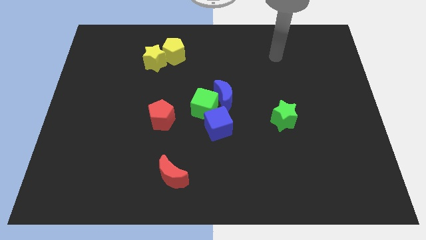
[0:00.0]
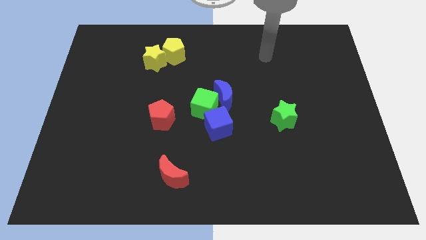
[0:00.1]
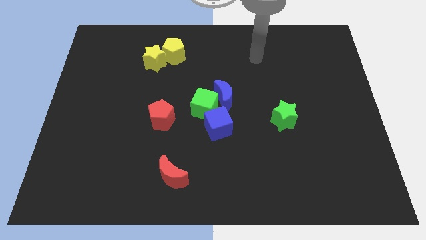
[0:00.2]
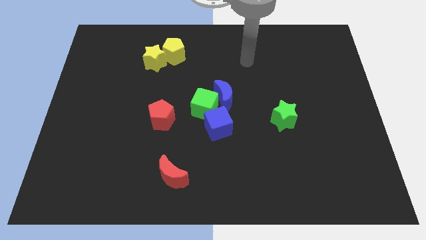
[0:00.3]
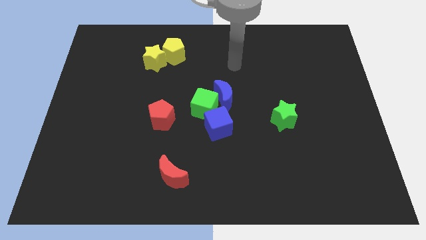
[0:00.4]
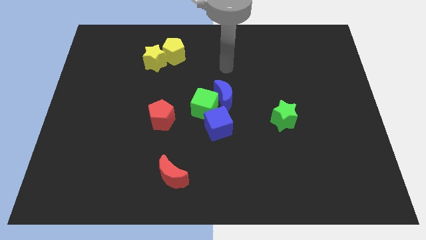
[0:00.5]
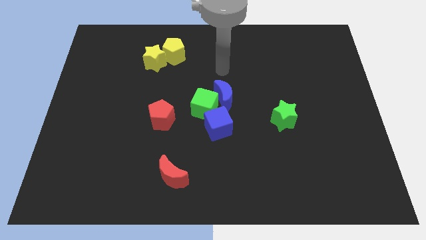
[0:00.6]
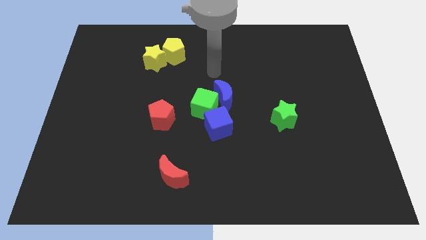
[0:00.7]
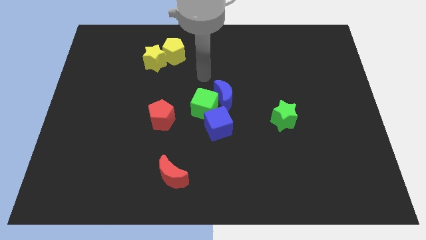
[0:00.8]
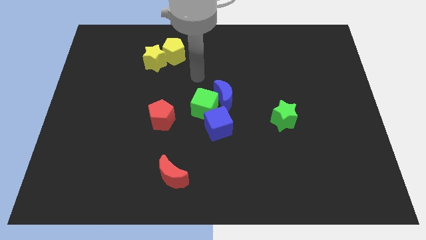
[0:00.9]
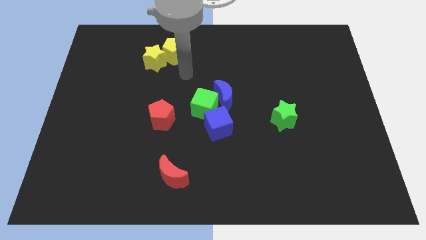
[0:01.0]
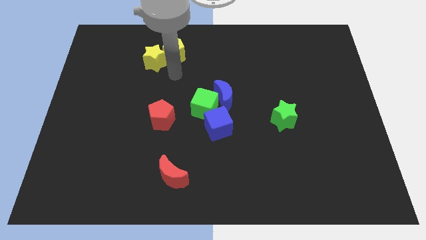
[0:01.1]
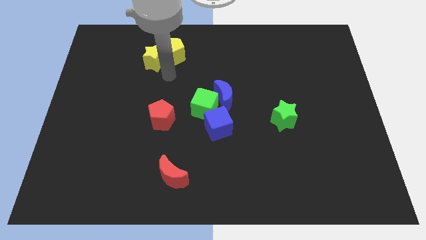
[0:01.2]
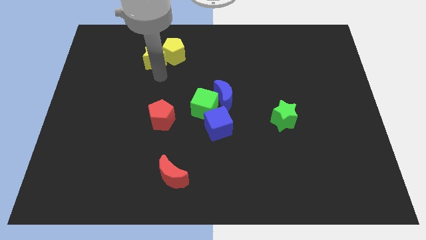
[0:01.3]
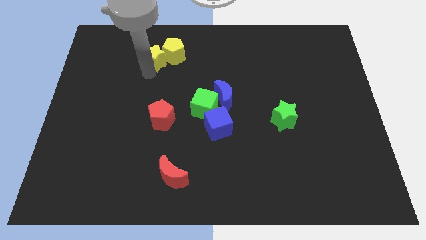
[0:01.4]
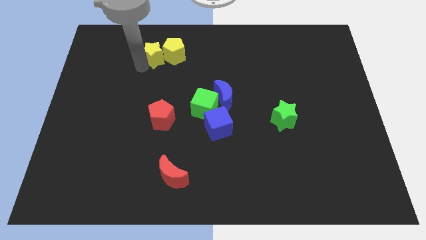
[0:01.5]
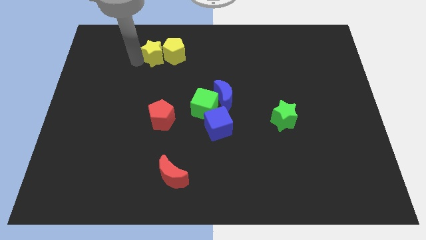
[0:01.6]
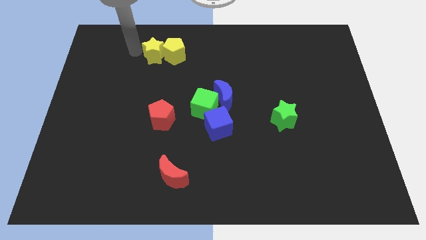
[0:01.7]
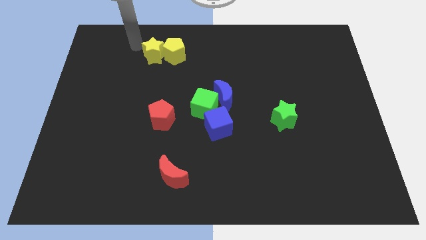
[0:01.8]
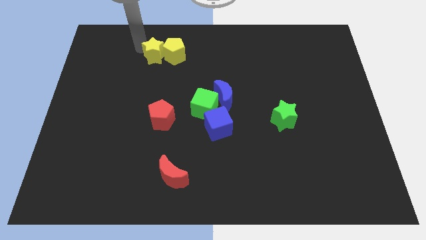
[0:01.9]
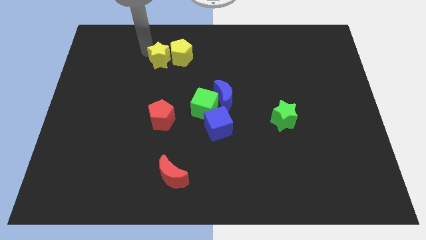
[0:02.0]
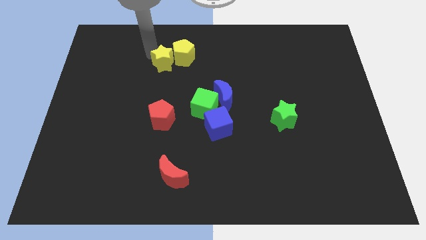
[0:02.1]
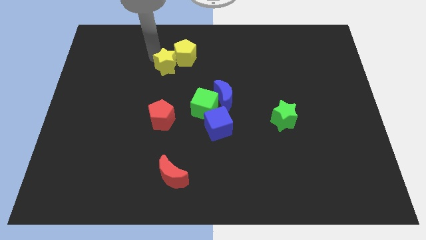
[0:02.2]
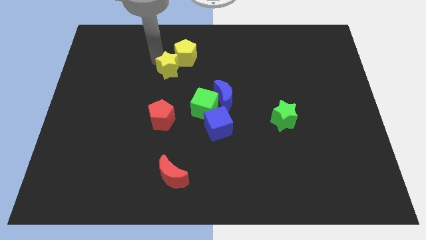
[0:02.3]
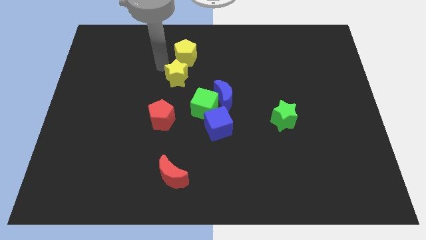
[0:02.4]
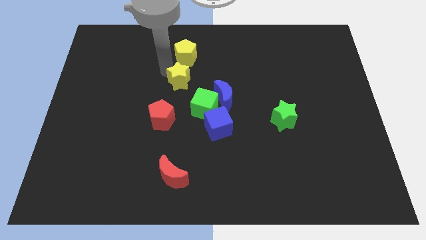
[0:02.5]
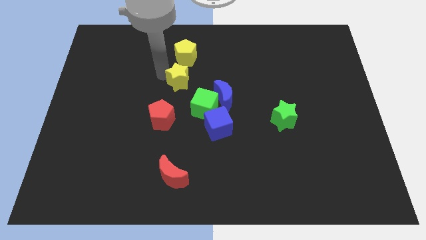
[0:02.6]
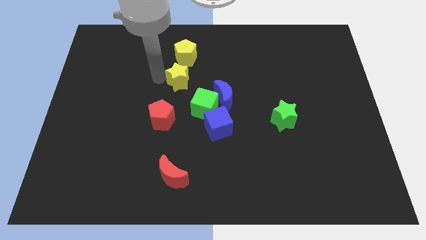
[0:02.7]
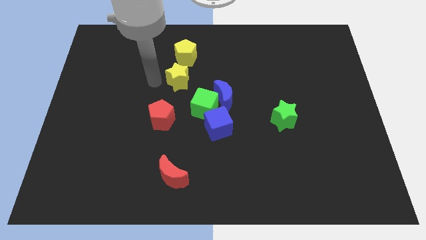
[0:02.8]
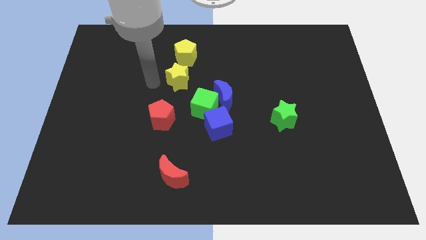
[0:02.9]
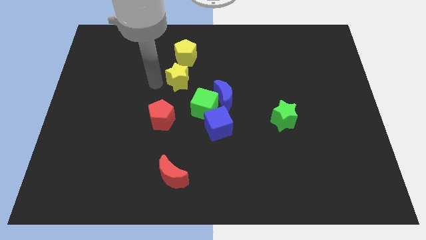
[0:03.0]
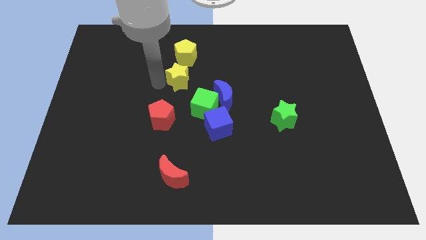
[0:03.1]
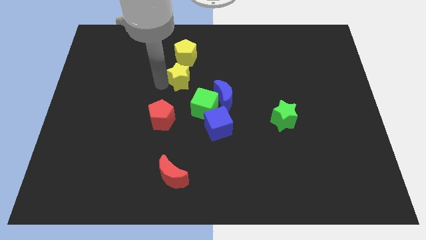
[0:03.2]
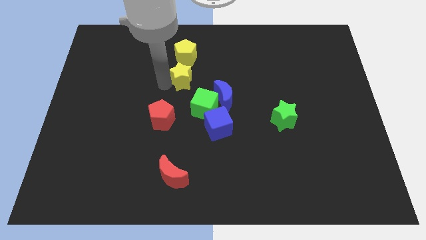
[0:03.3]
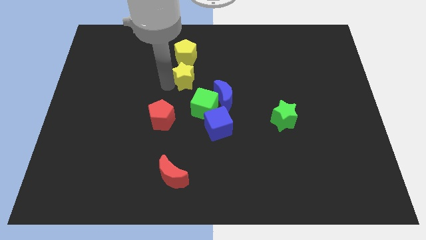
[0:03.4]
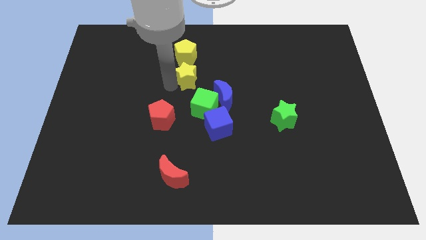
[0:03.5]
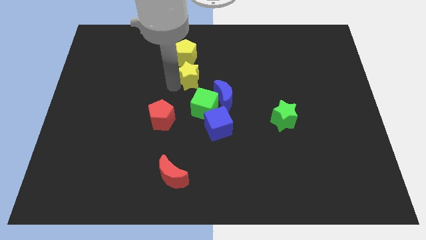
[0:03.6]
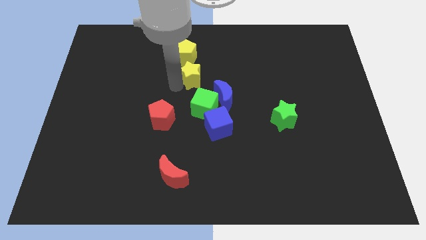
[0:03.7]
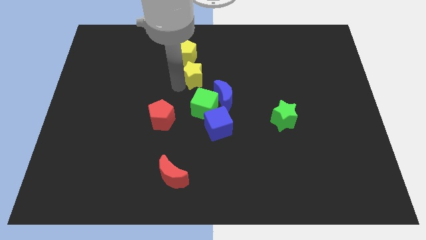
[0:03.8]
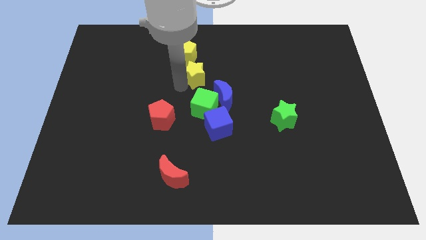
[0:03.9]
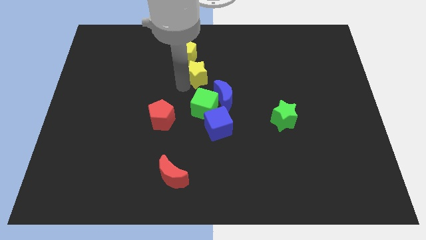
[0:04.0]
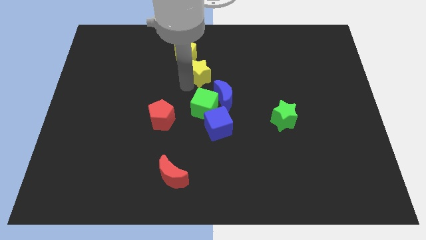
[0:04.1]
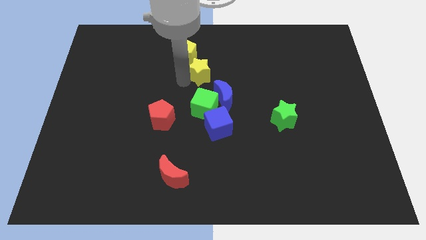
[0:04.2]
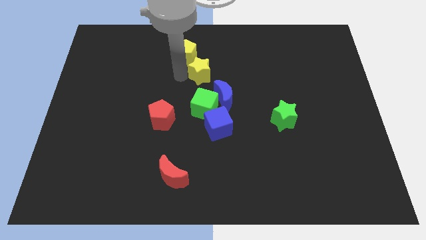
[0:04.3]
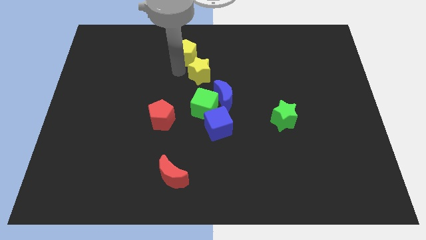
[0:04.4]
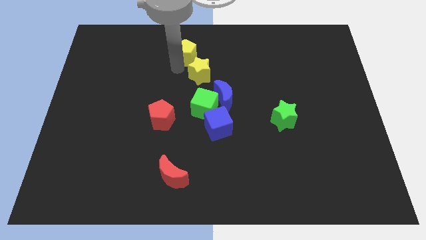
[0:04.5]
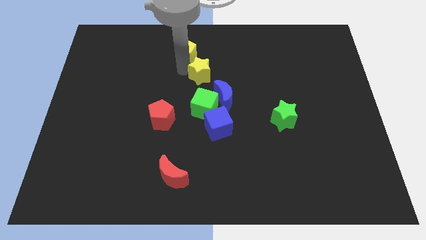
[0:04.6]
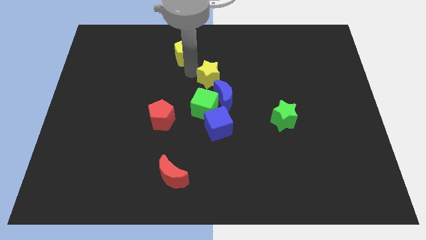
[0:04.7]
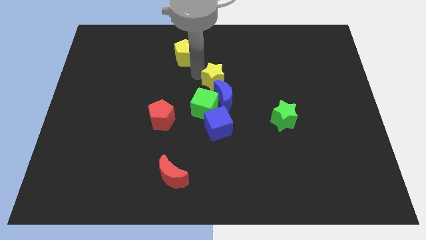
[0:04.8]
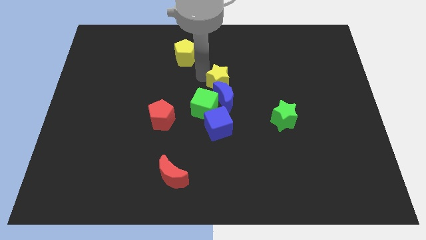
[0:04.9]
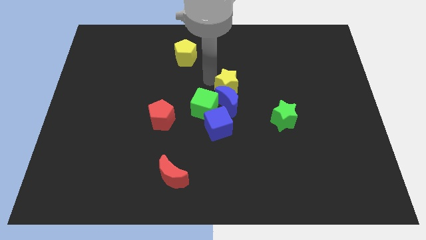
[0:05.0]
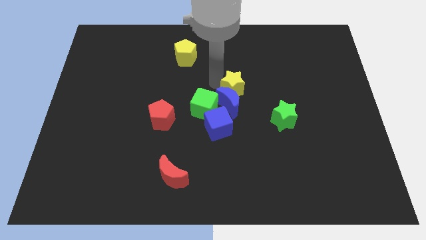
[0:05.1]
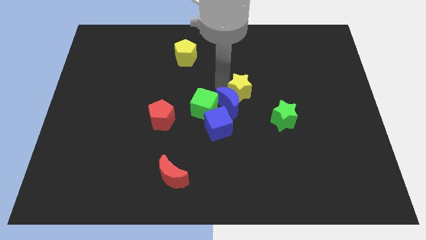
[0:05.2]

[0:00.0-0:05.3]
slide the yellow star to the right side of the blue moon

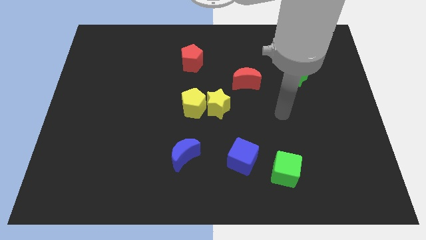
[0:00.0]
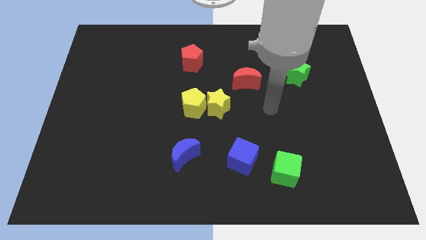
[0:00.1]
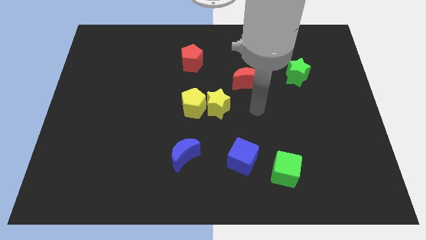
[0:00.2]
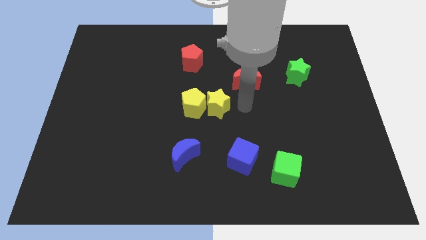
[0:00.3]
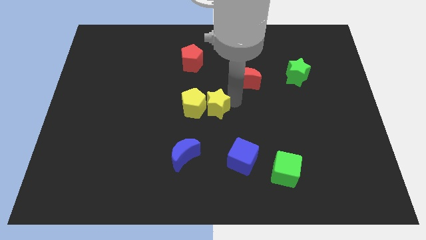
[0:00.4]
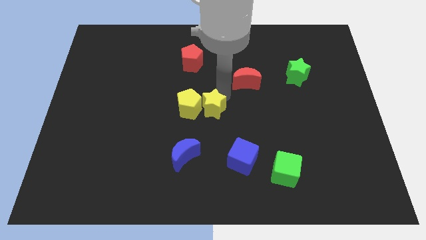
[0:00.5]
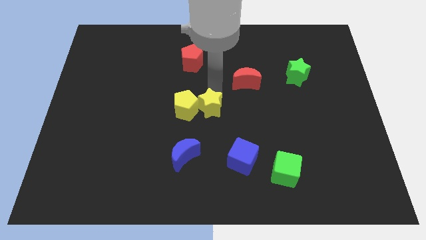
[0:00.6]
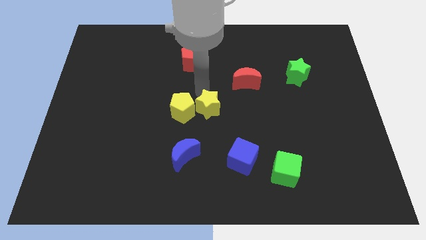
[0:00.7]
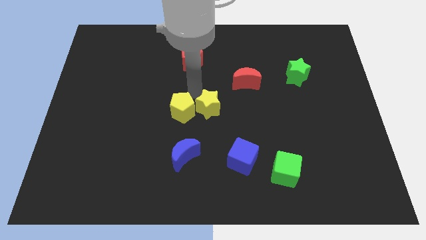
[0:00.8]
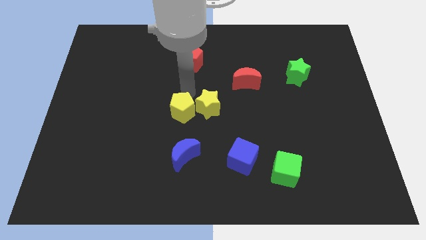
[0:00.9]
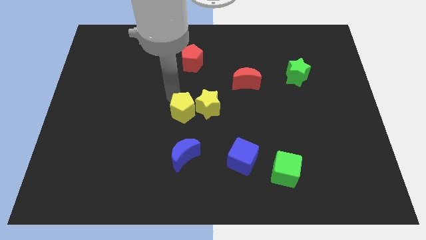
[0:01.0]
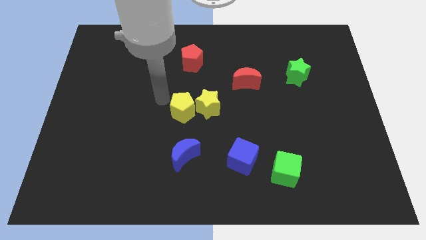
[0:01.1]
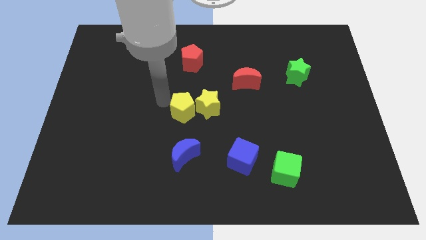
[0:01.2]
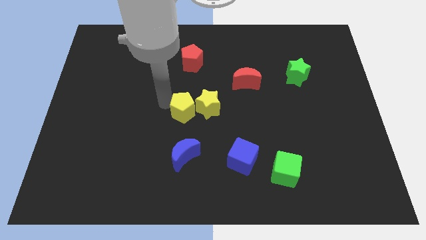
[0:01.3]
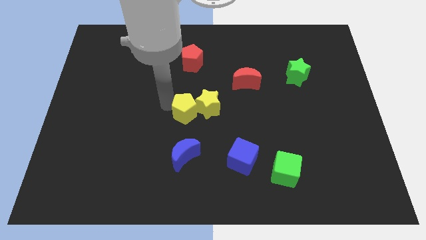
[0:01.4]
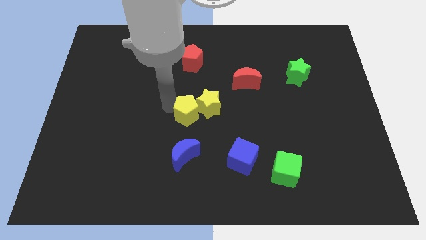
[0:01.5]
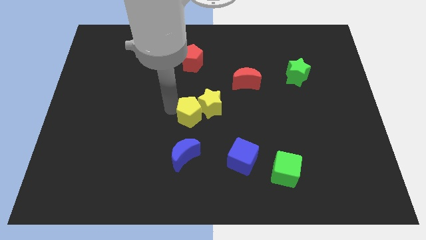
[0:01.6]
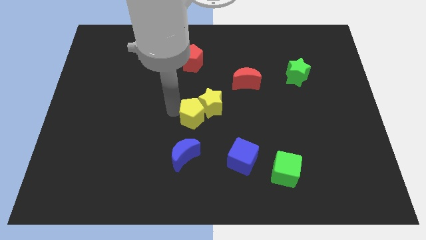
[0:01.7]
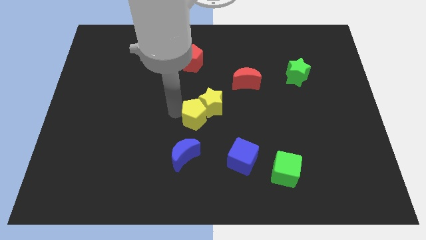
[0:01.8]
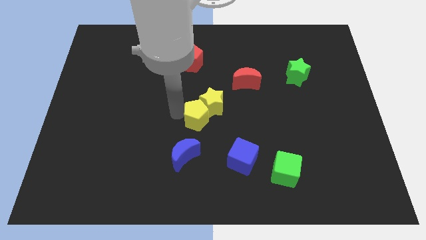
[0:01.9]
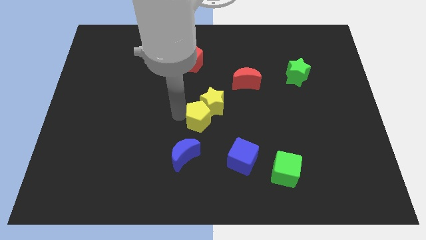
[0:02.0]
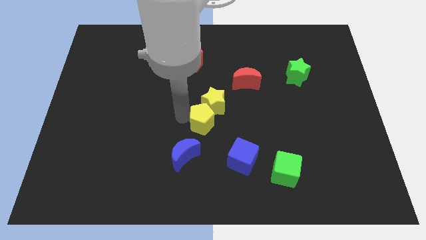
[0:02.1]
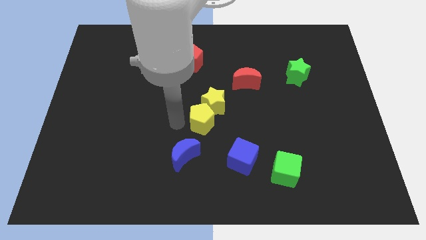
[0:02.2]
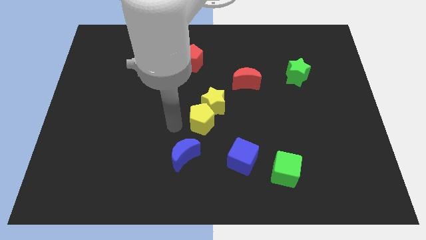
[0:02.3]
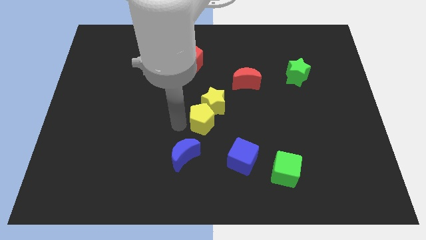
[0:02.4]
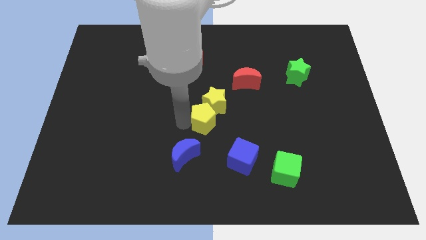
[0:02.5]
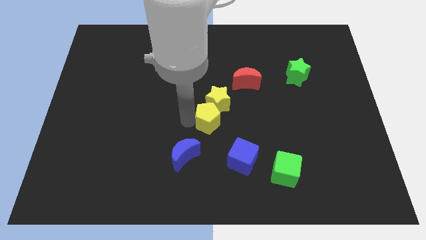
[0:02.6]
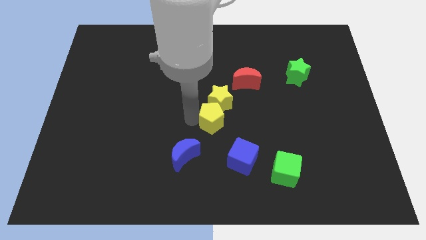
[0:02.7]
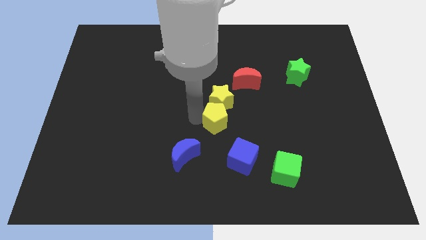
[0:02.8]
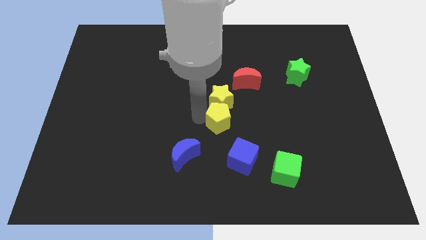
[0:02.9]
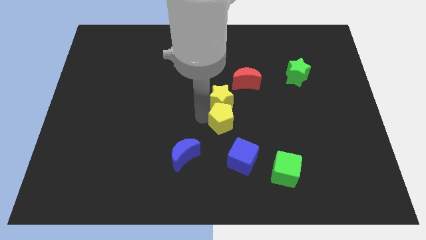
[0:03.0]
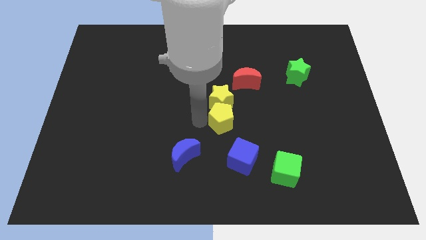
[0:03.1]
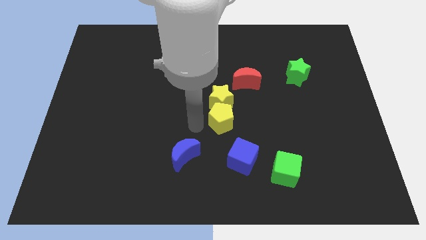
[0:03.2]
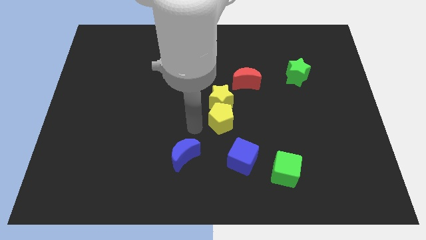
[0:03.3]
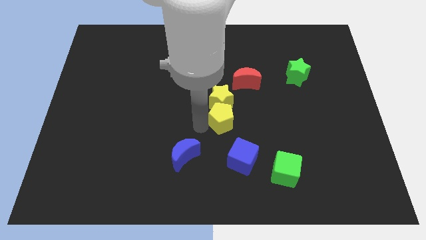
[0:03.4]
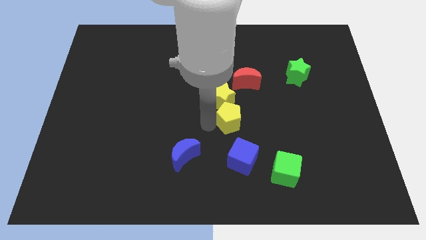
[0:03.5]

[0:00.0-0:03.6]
slide the yellow pentagon to the bottom side of the red moon
